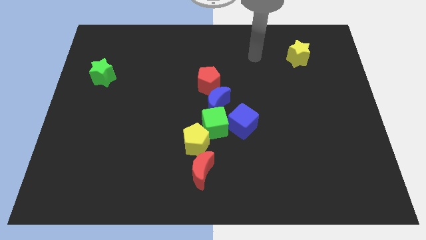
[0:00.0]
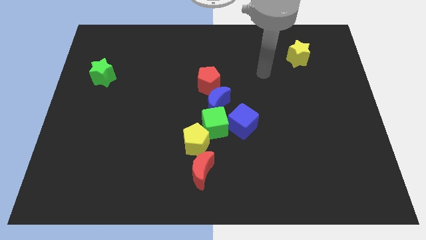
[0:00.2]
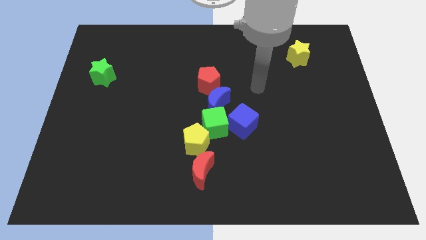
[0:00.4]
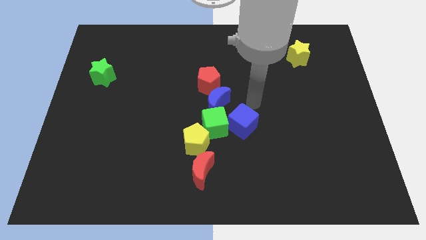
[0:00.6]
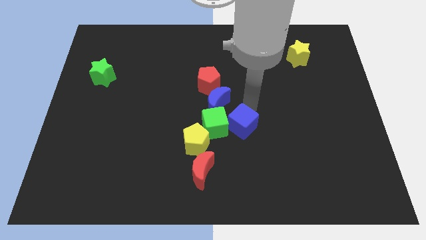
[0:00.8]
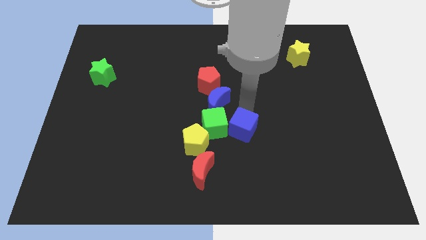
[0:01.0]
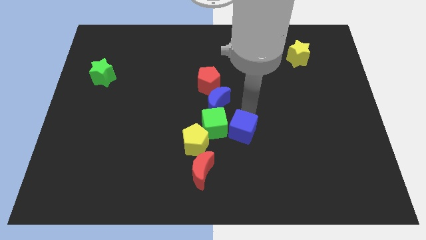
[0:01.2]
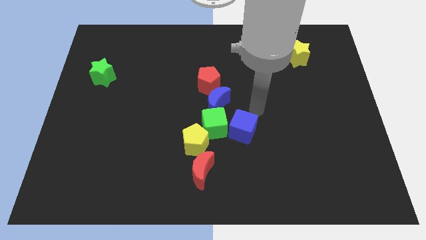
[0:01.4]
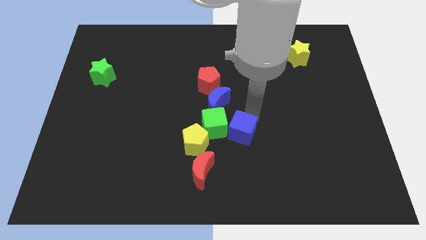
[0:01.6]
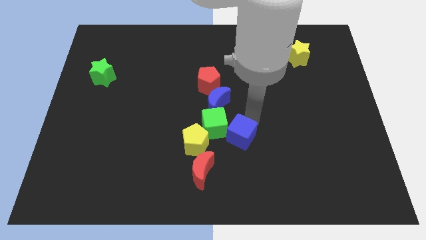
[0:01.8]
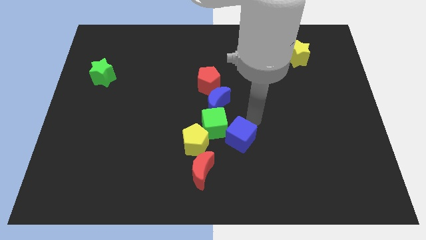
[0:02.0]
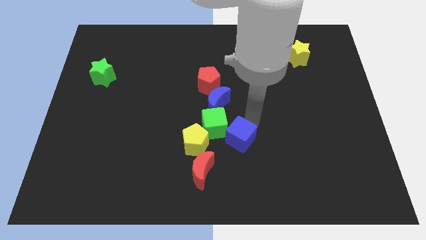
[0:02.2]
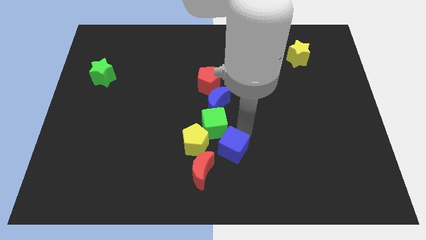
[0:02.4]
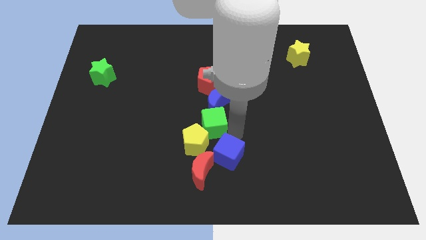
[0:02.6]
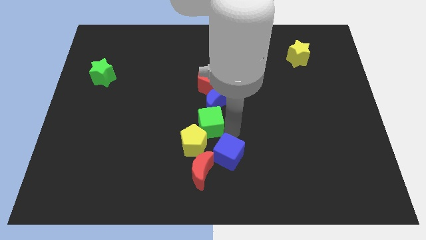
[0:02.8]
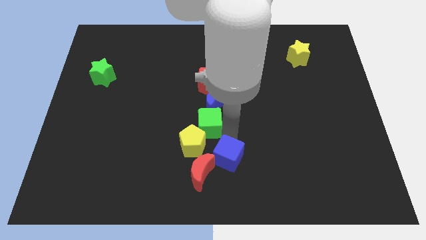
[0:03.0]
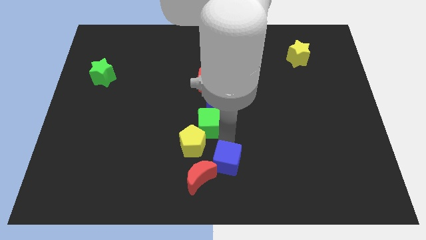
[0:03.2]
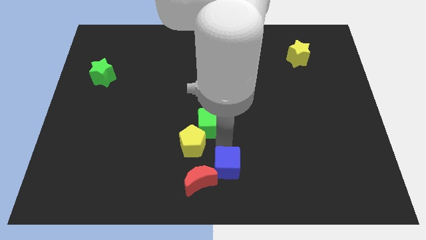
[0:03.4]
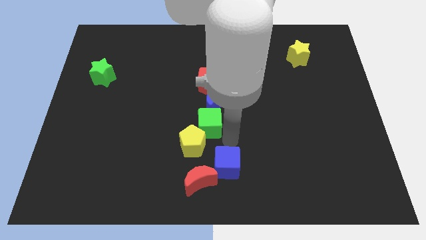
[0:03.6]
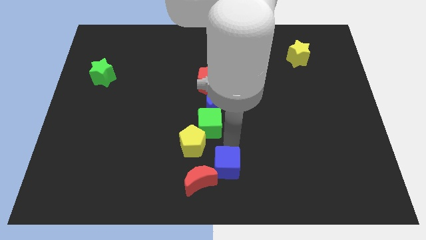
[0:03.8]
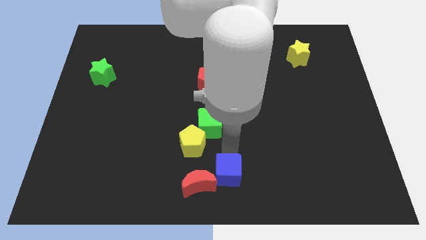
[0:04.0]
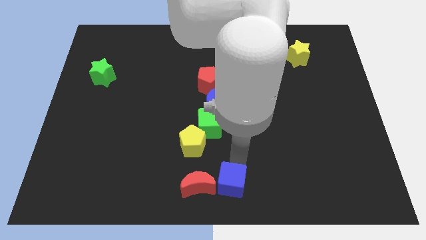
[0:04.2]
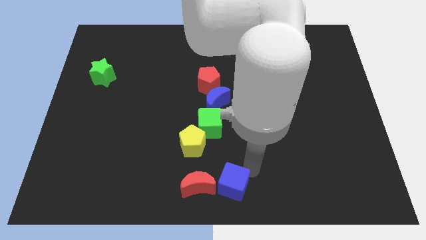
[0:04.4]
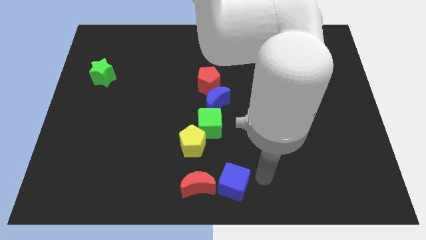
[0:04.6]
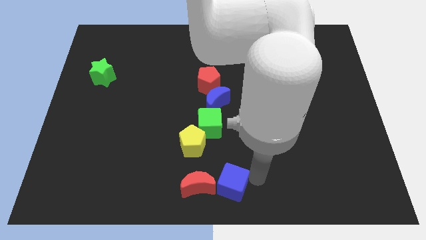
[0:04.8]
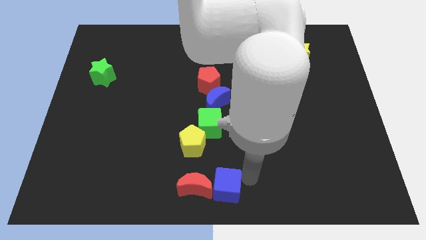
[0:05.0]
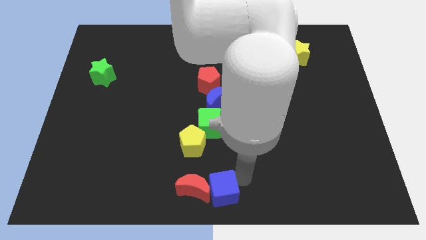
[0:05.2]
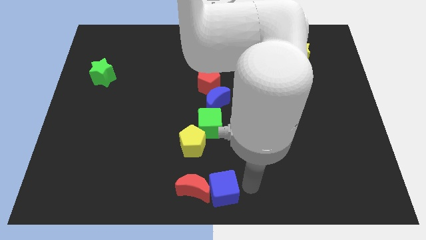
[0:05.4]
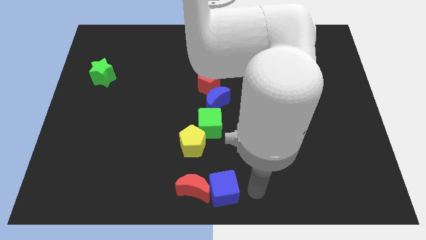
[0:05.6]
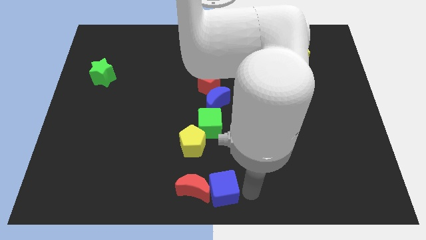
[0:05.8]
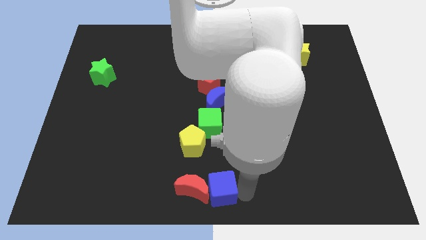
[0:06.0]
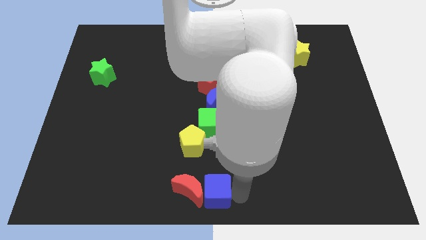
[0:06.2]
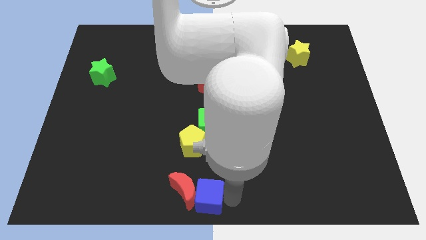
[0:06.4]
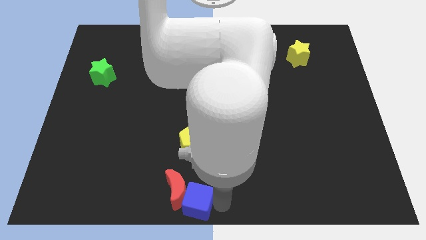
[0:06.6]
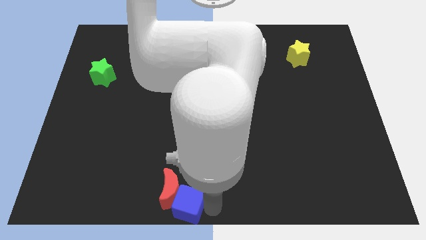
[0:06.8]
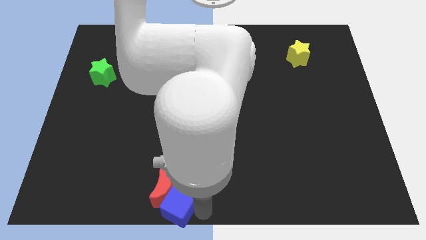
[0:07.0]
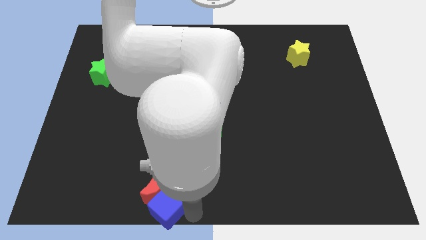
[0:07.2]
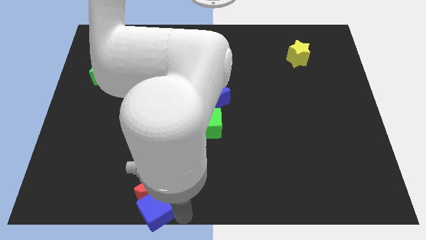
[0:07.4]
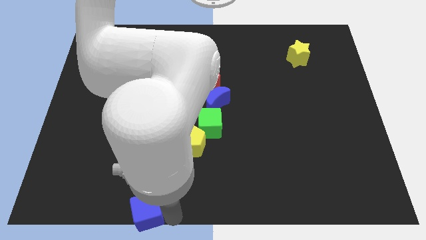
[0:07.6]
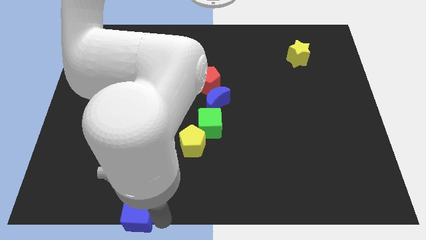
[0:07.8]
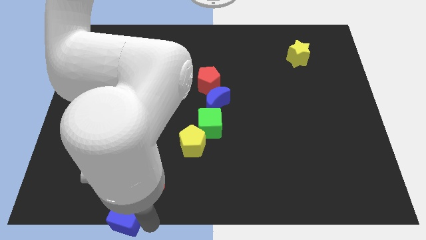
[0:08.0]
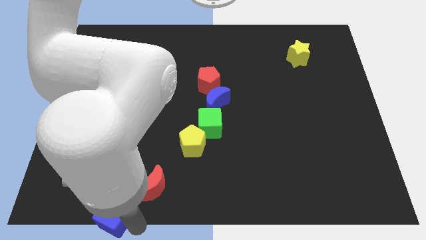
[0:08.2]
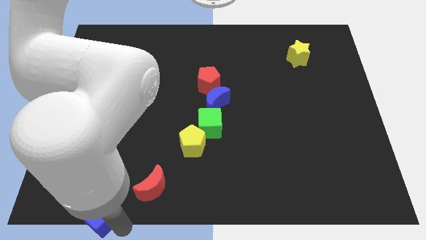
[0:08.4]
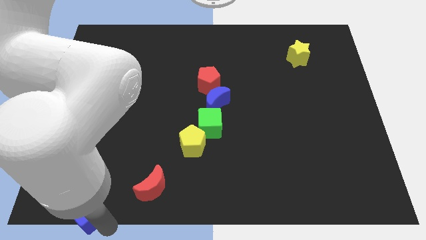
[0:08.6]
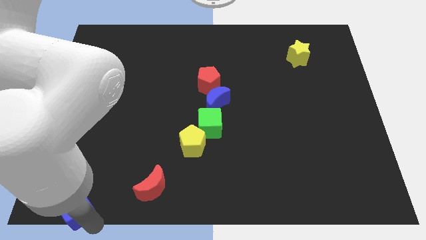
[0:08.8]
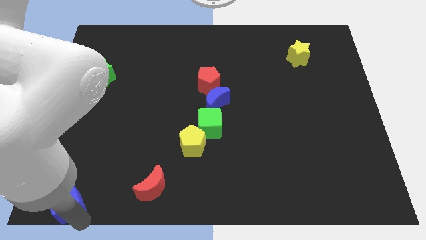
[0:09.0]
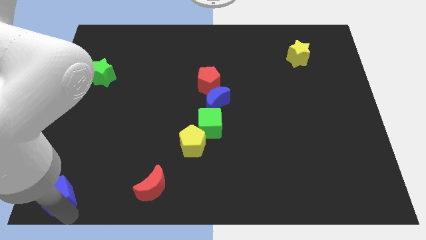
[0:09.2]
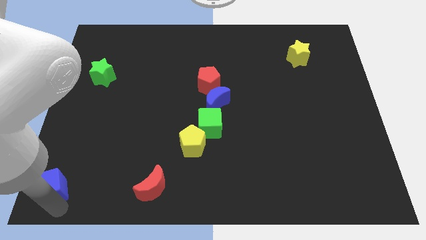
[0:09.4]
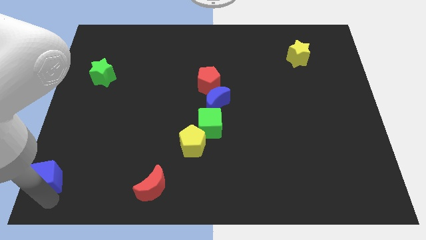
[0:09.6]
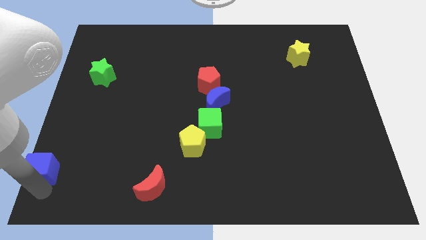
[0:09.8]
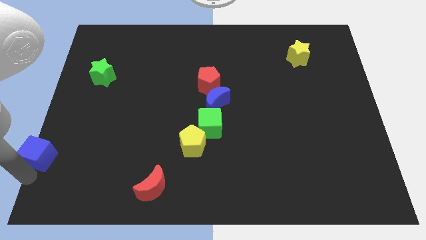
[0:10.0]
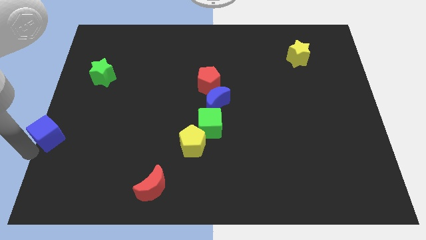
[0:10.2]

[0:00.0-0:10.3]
slide the blue cube left

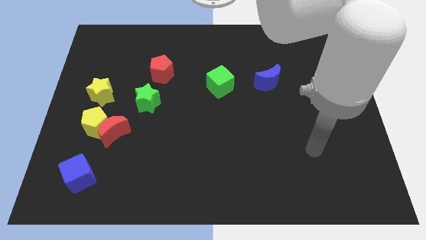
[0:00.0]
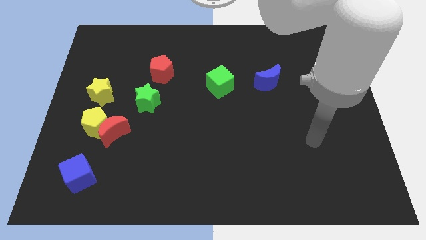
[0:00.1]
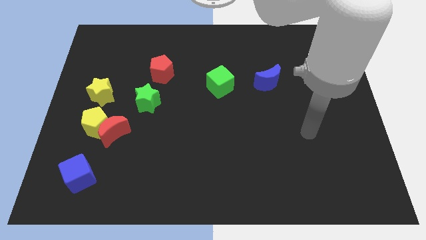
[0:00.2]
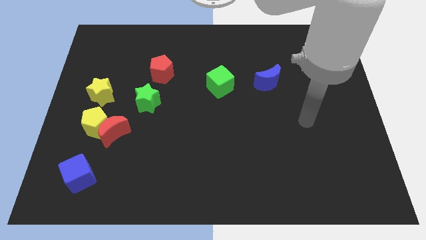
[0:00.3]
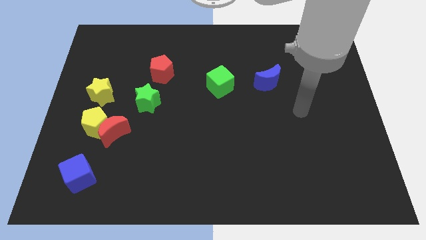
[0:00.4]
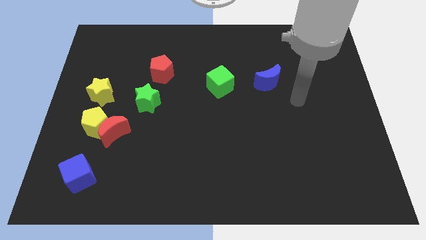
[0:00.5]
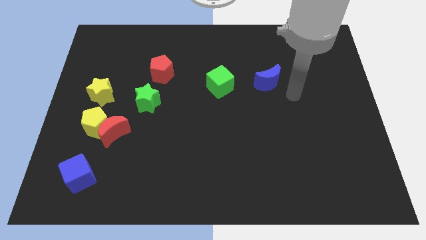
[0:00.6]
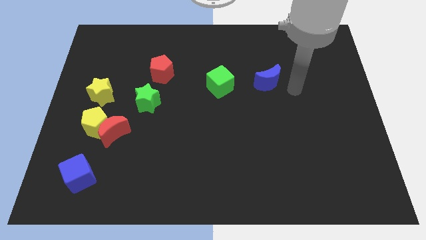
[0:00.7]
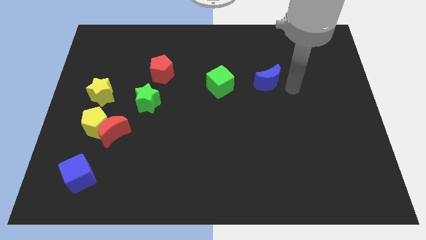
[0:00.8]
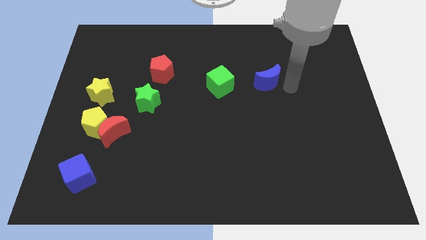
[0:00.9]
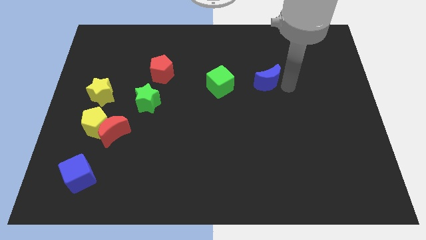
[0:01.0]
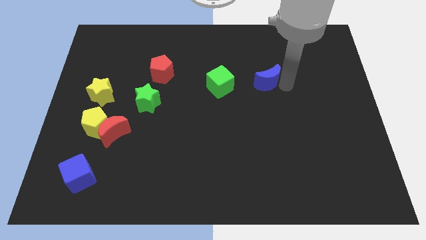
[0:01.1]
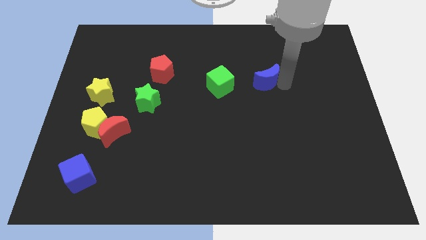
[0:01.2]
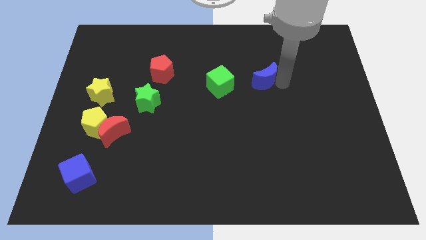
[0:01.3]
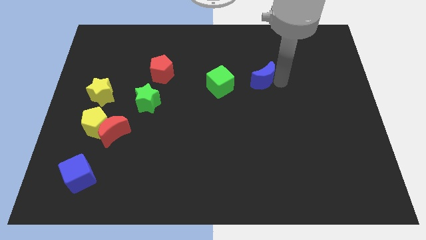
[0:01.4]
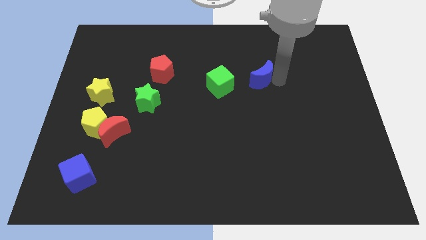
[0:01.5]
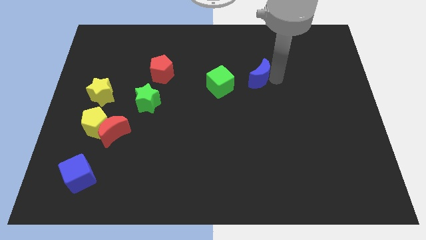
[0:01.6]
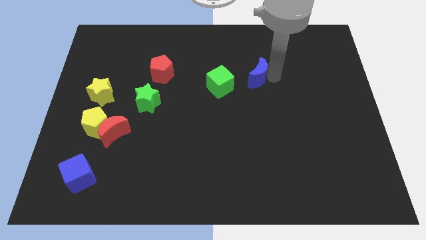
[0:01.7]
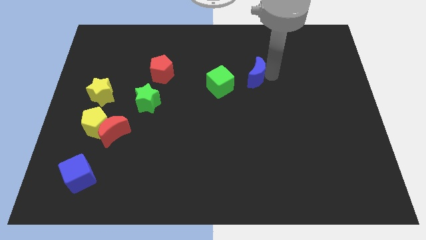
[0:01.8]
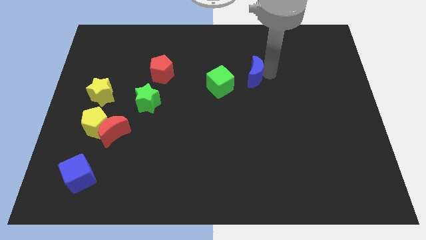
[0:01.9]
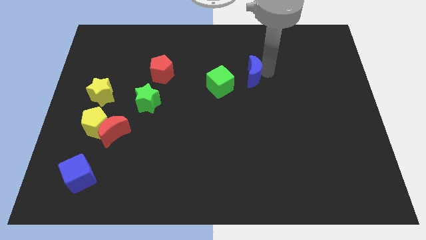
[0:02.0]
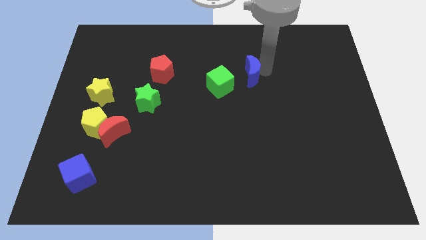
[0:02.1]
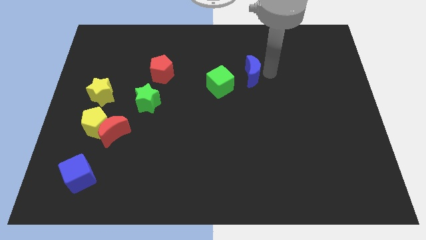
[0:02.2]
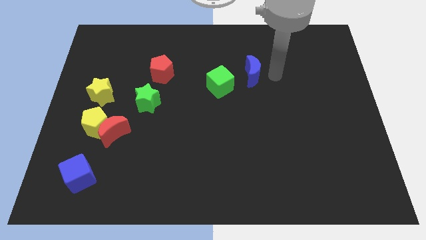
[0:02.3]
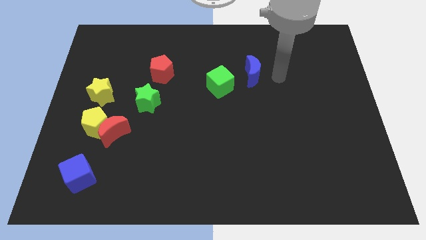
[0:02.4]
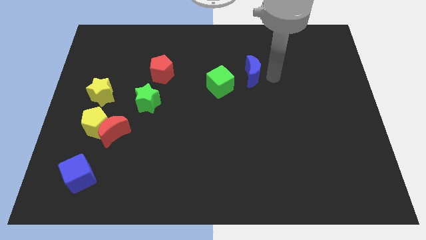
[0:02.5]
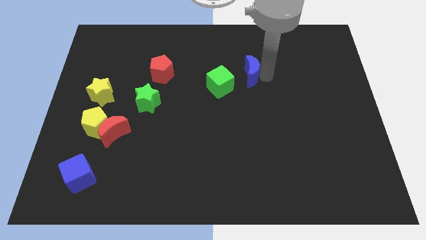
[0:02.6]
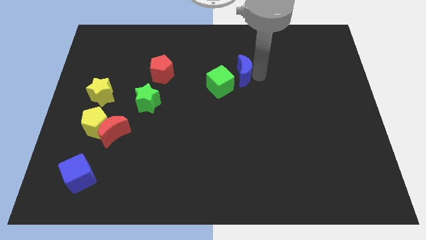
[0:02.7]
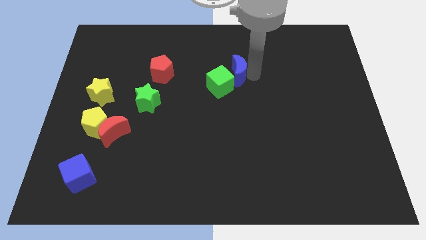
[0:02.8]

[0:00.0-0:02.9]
slide the blue moon slightly to the left
